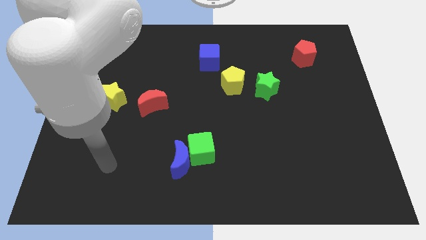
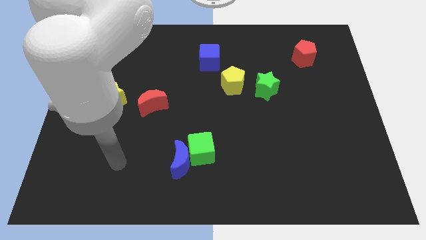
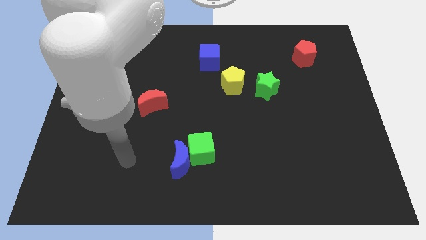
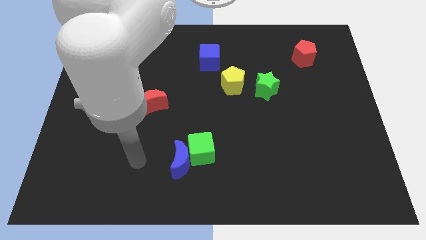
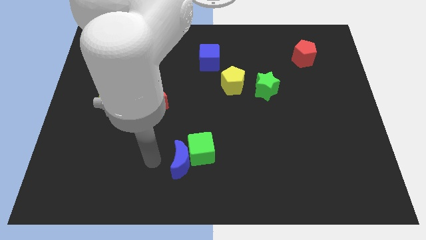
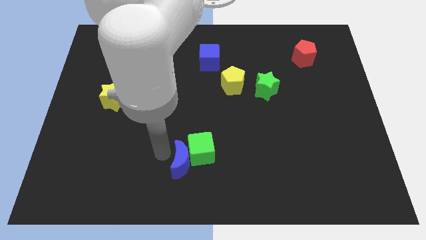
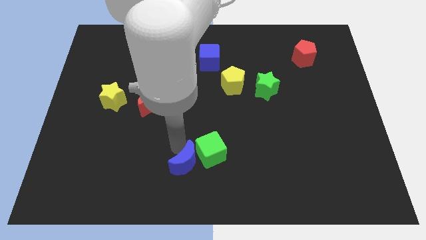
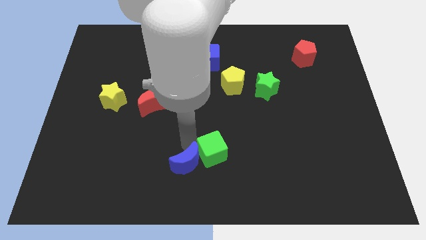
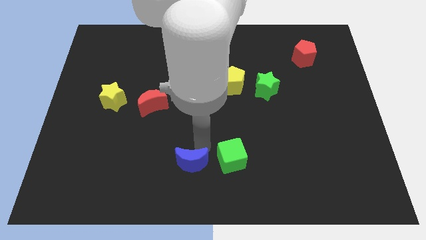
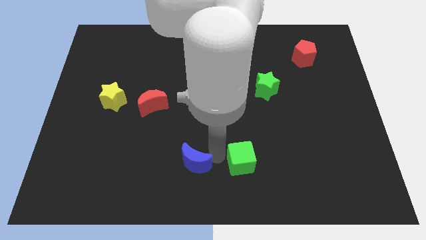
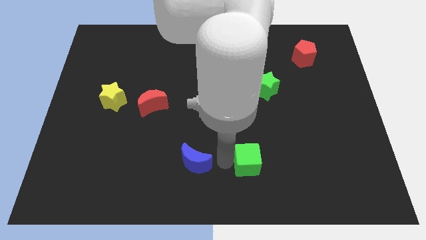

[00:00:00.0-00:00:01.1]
pull the blue moon apart from the green cube

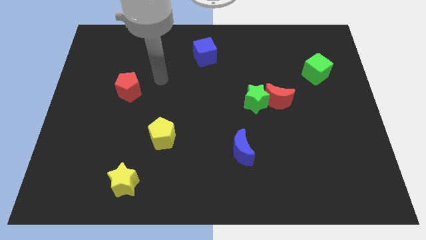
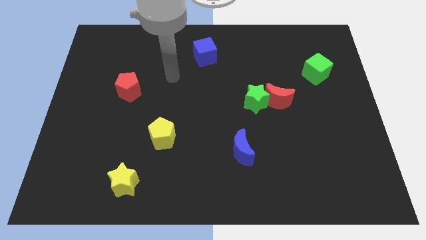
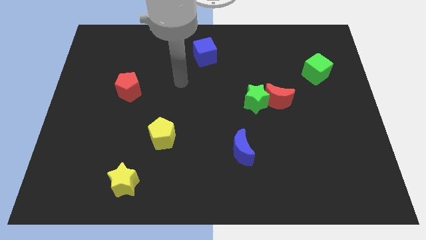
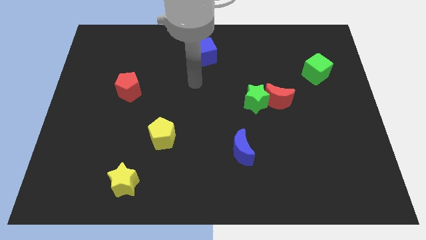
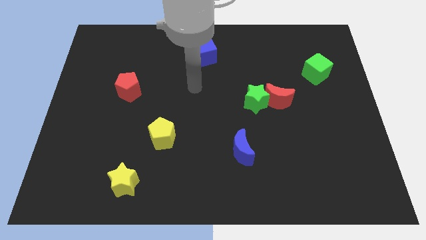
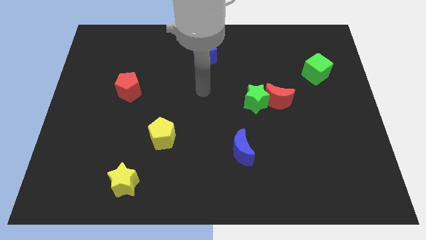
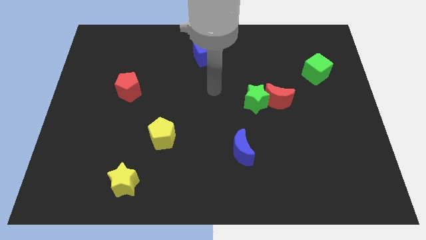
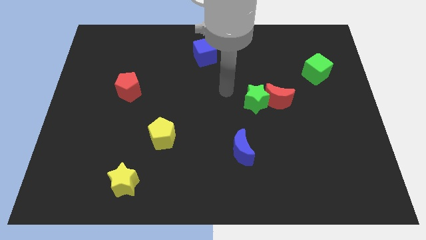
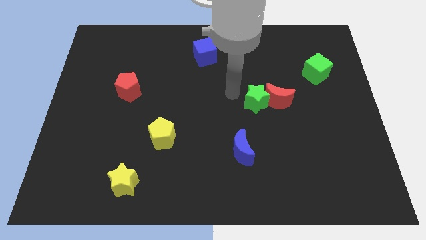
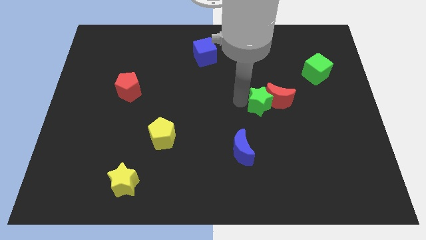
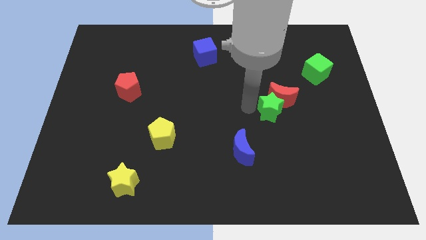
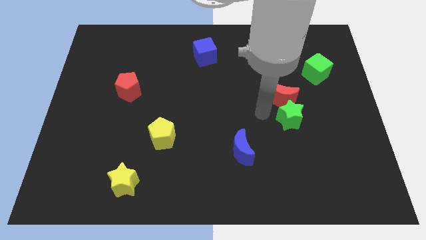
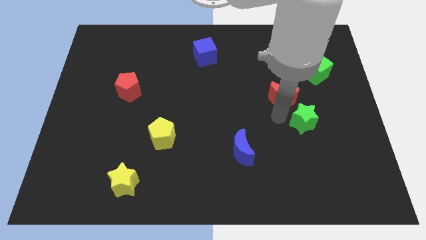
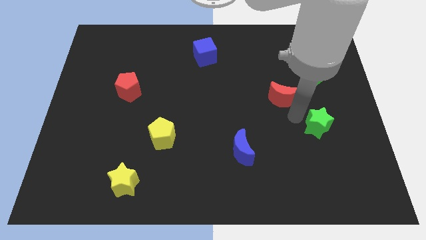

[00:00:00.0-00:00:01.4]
pull the red moon apart from the green star

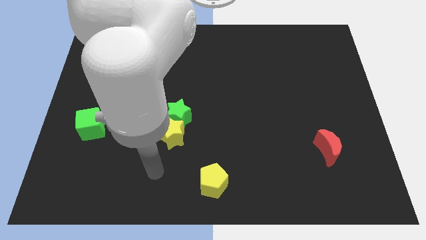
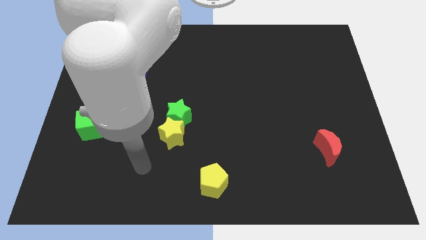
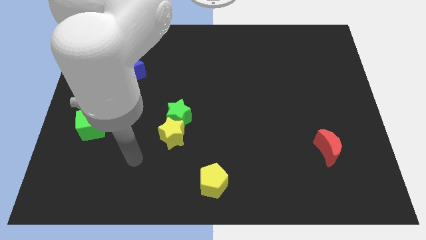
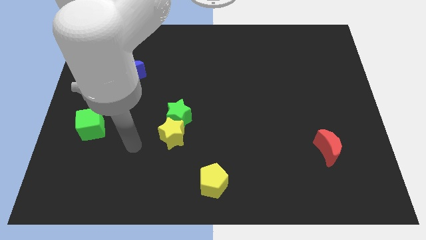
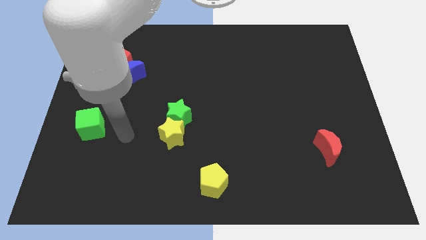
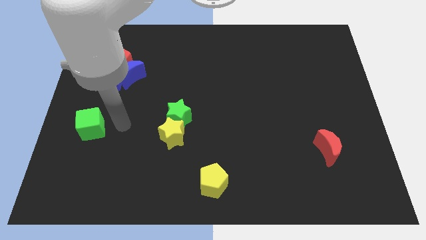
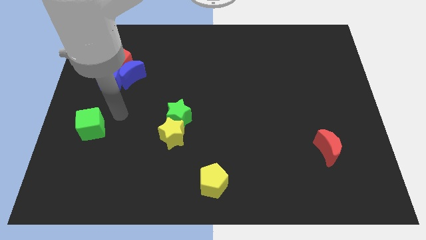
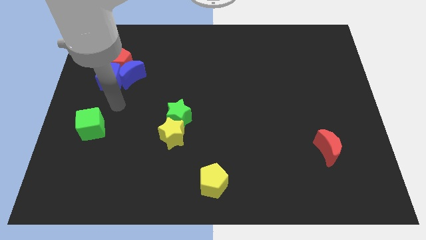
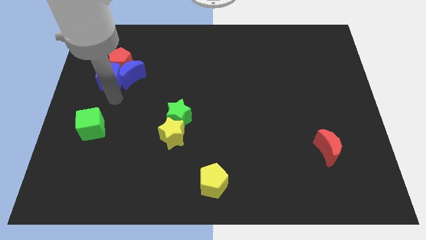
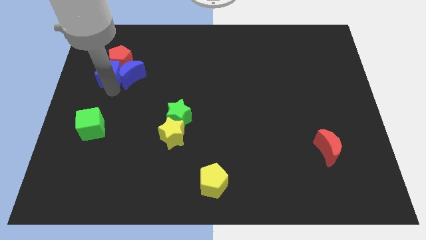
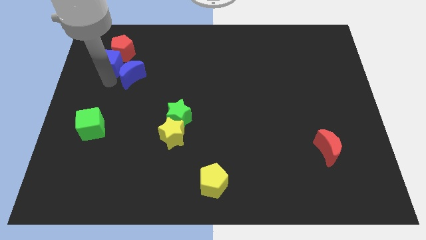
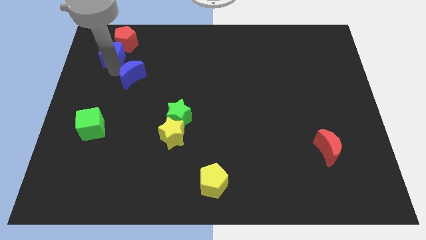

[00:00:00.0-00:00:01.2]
separate the blue moon from the red pentagon and blue cube

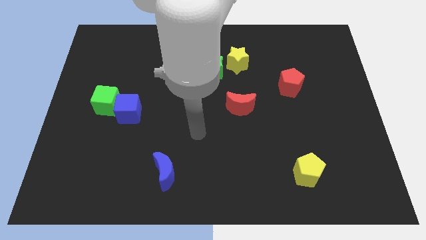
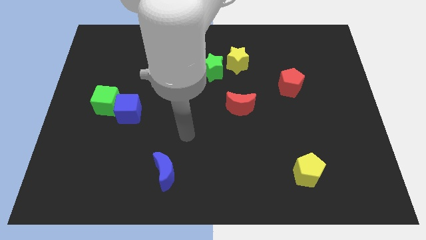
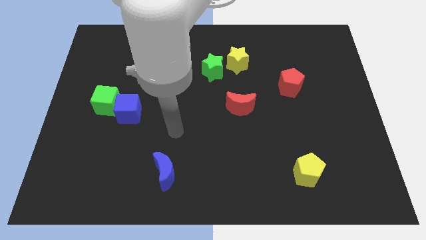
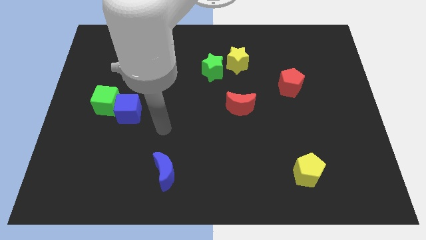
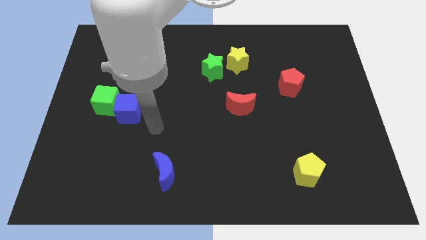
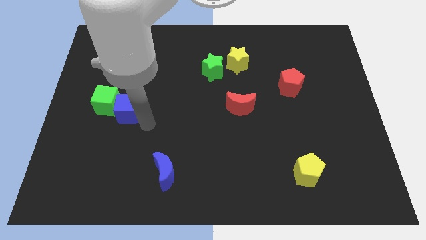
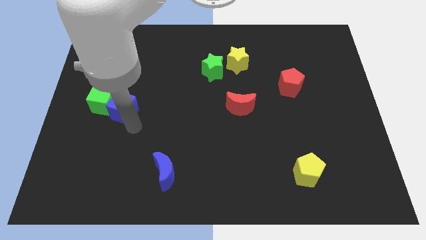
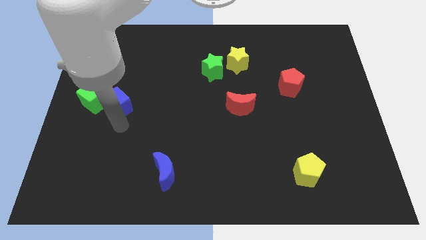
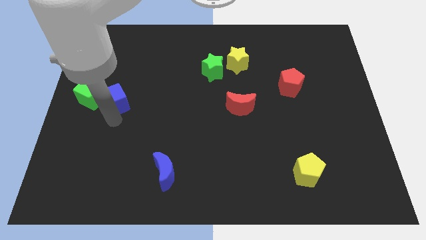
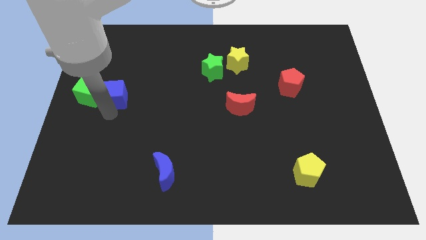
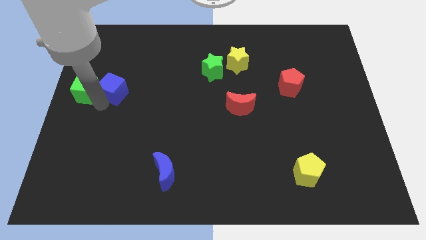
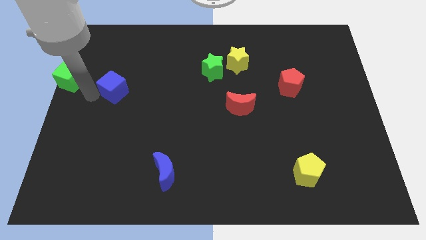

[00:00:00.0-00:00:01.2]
pull the blue cube apart from the green cube

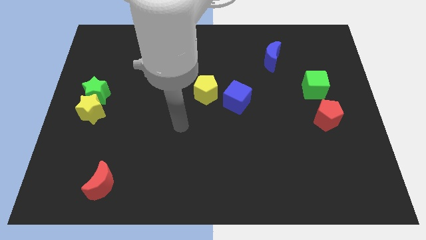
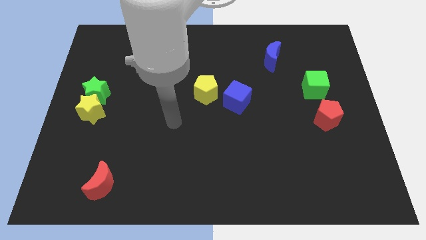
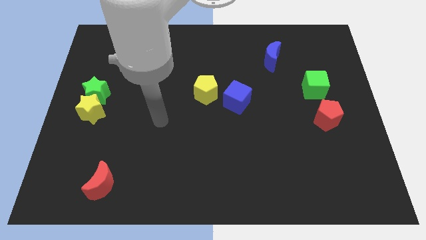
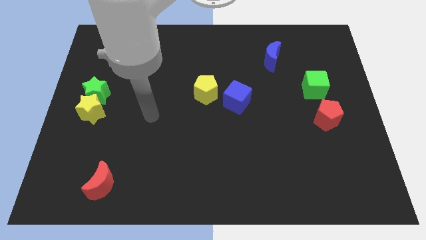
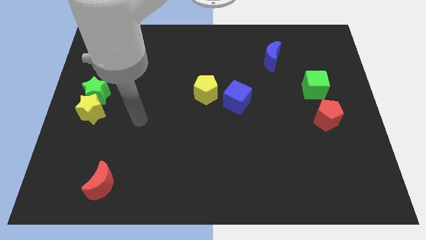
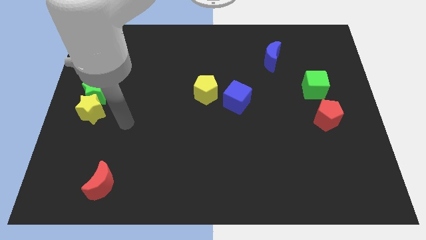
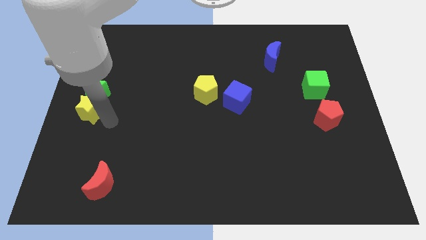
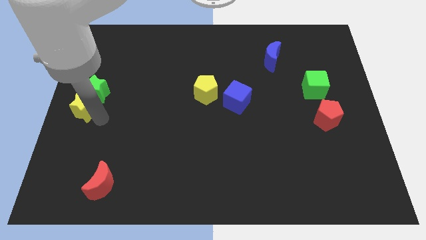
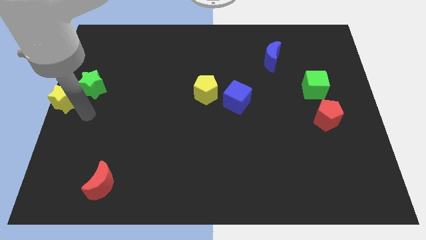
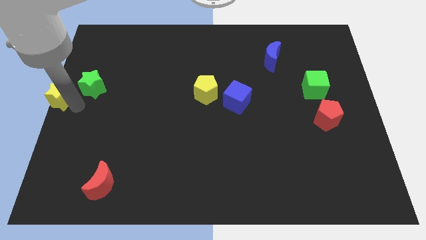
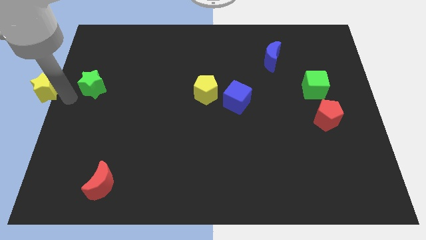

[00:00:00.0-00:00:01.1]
separate the green star from the yellow star

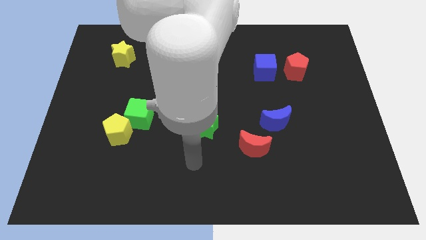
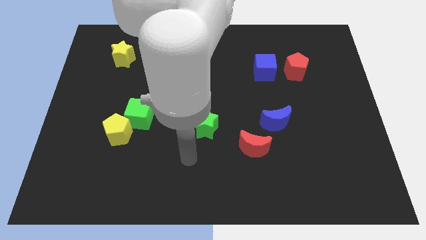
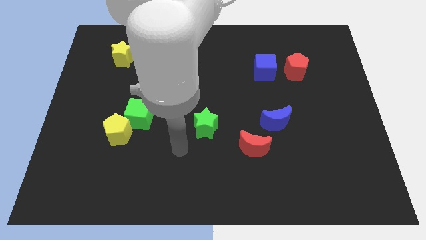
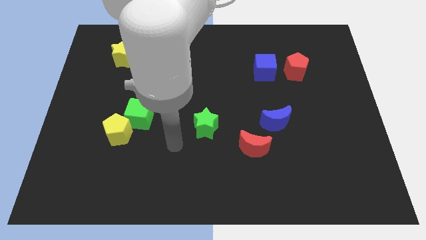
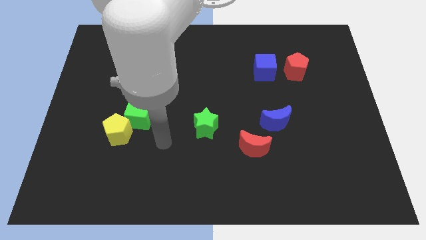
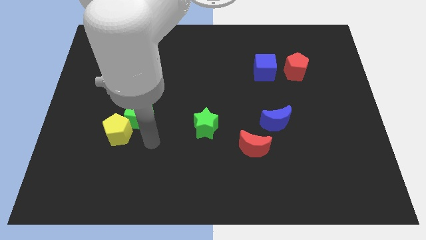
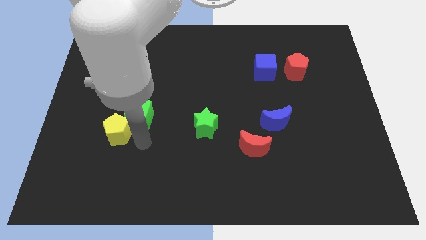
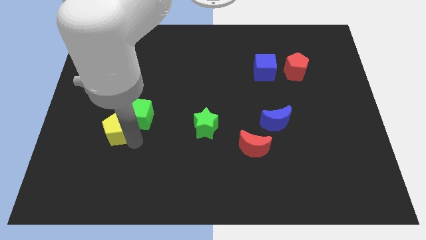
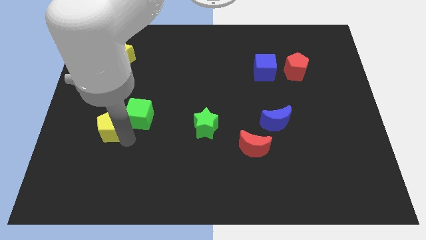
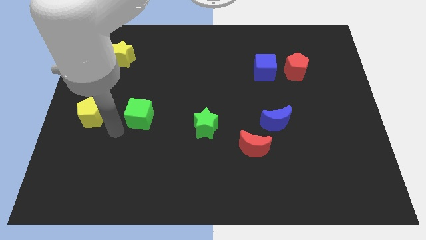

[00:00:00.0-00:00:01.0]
move the green cube away from the yellow pentagon

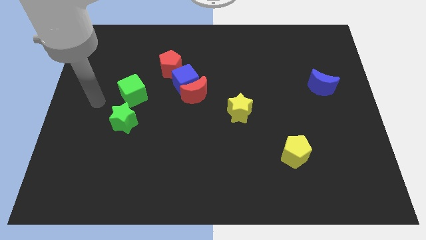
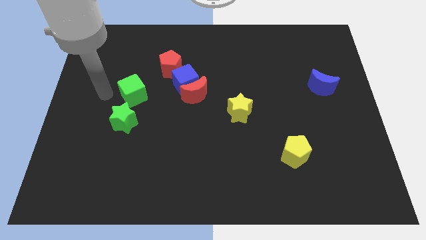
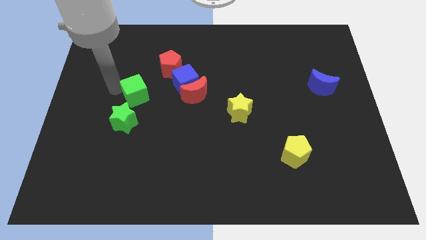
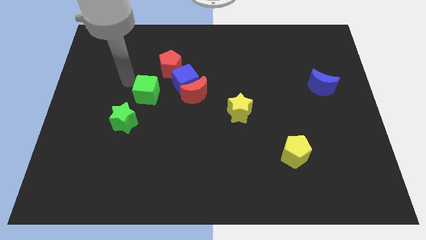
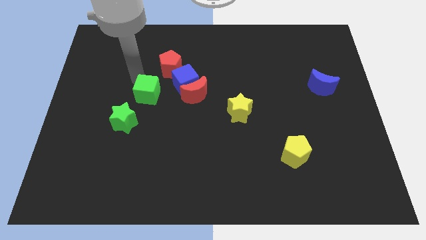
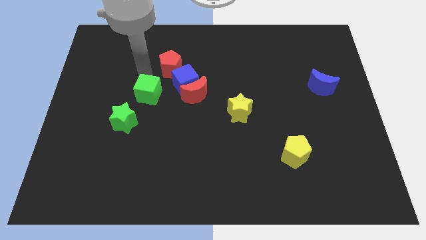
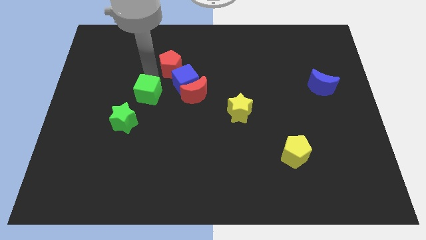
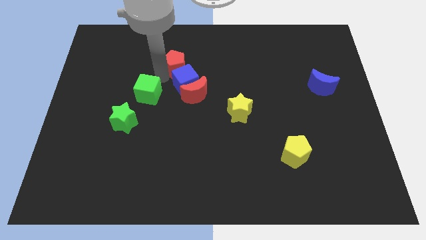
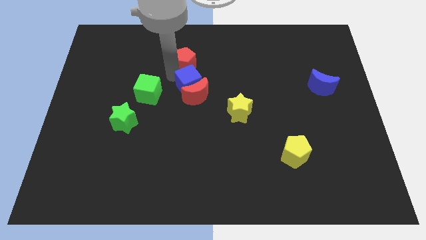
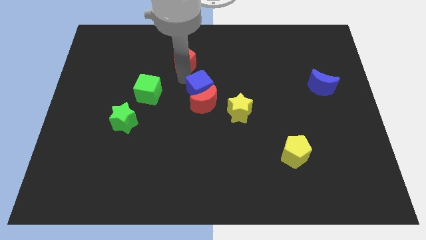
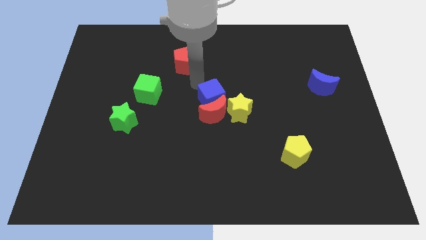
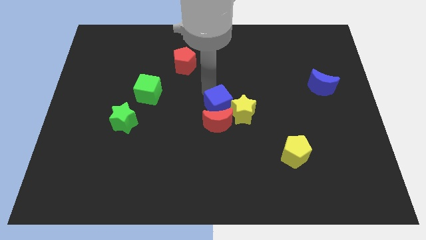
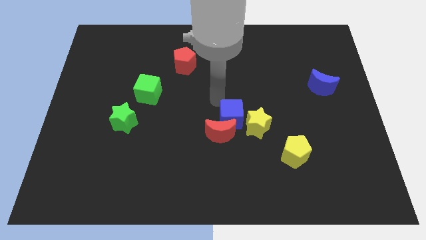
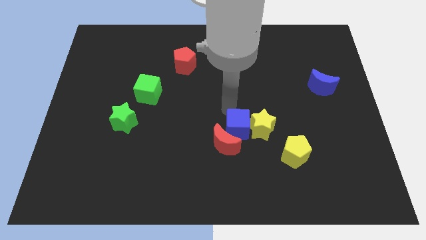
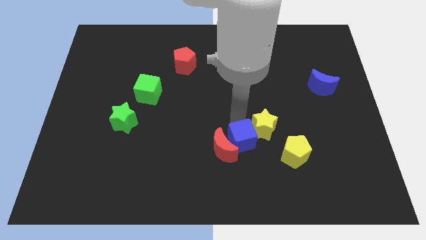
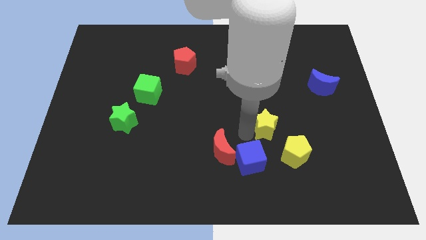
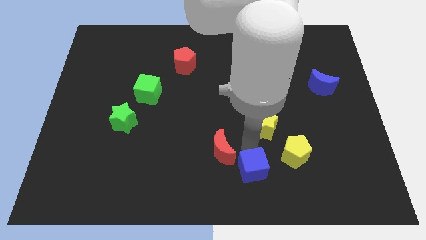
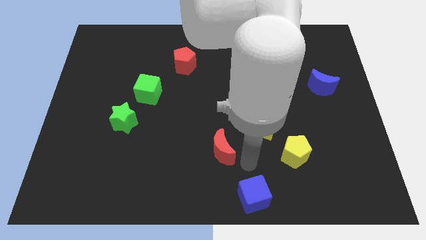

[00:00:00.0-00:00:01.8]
move the red moon away from the blue cube

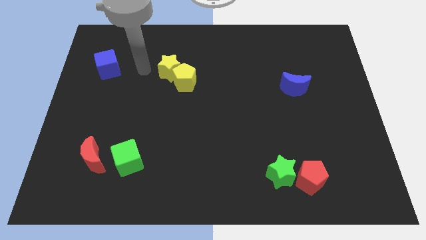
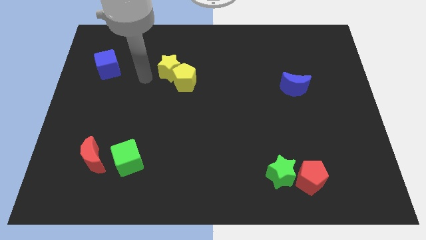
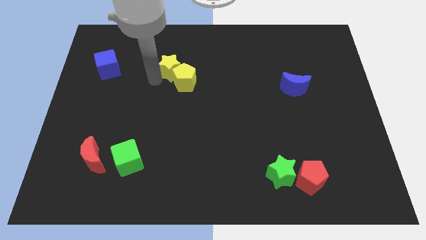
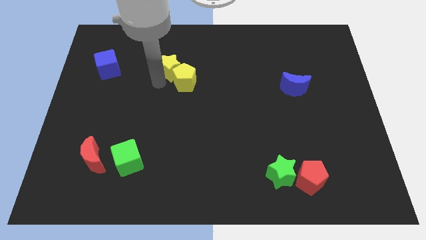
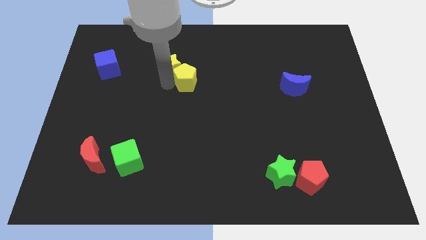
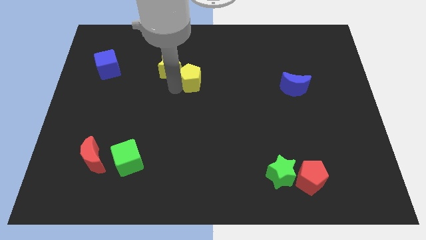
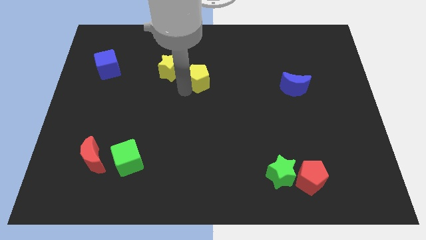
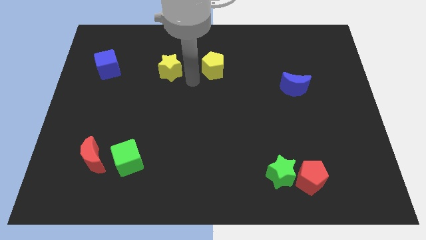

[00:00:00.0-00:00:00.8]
separate the yellow star from the yellow pentagon
